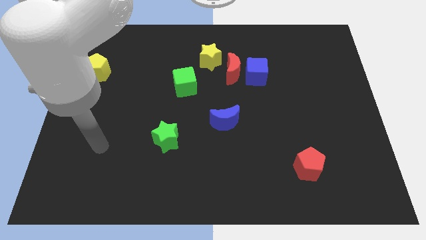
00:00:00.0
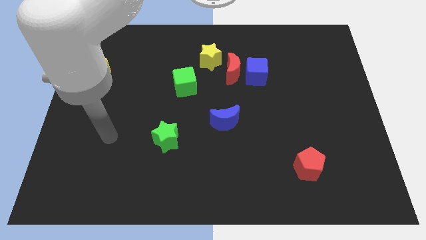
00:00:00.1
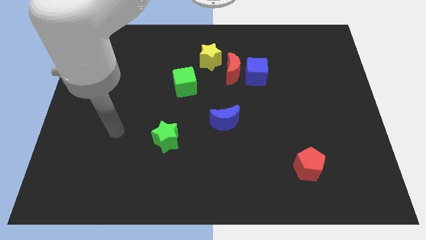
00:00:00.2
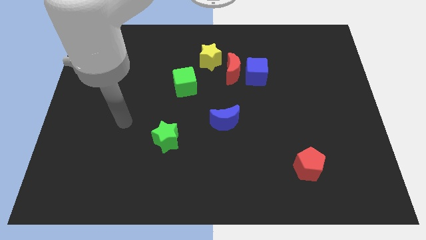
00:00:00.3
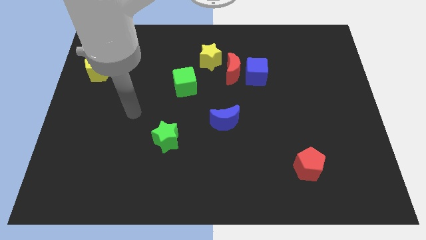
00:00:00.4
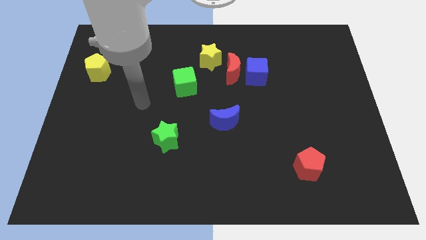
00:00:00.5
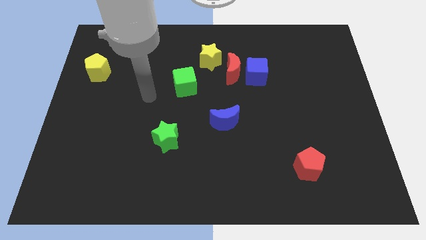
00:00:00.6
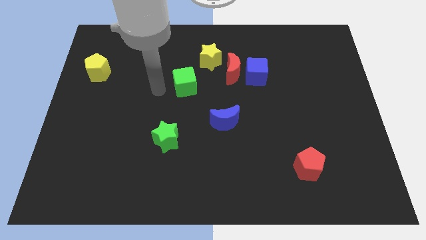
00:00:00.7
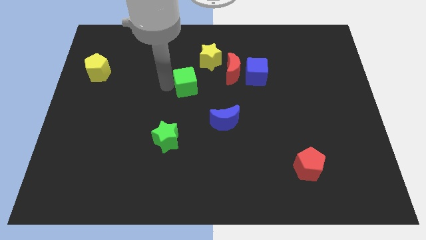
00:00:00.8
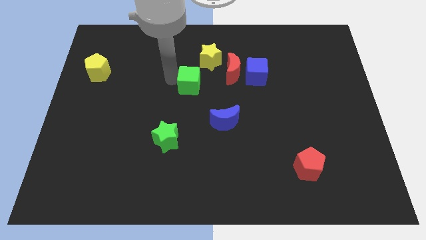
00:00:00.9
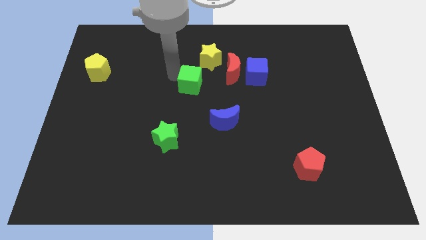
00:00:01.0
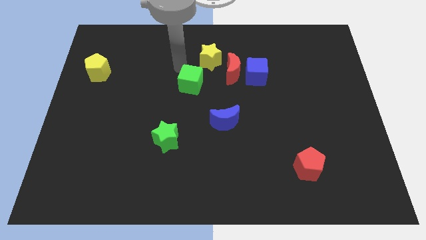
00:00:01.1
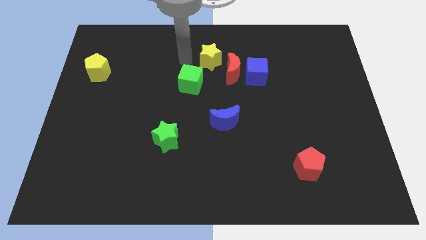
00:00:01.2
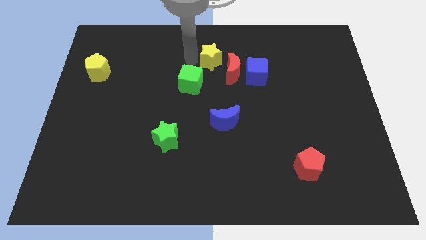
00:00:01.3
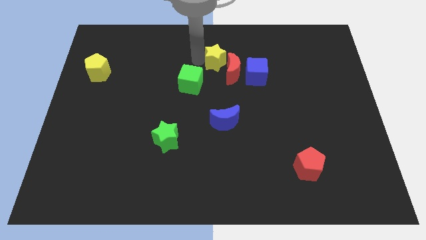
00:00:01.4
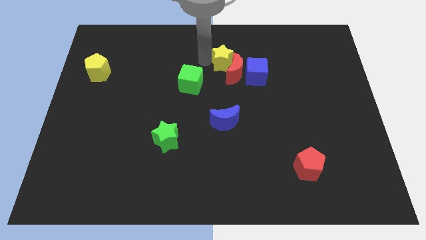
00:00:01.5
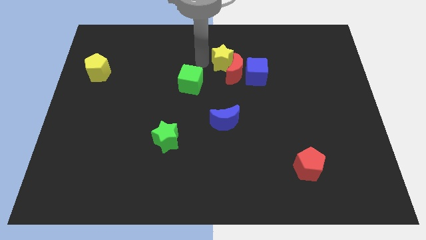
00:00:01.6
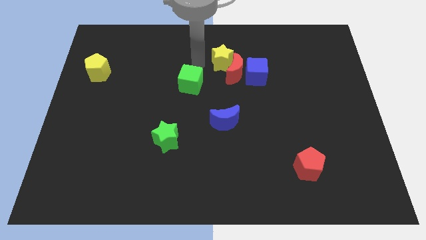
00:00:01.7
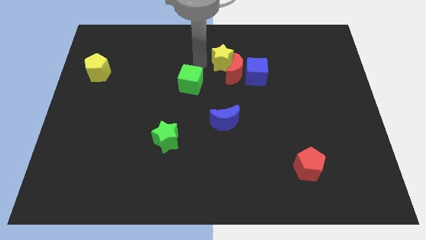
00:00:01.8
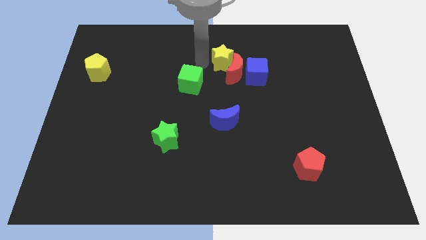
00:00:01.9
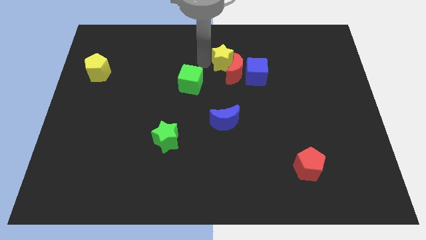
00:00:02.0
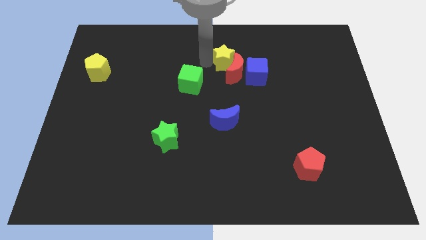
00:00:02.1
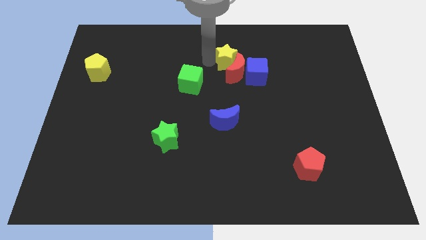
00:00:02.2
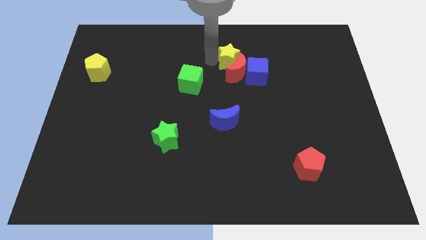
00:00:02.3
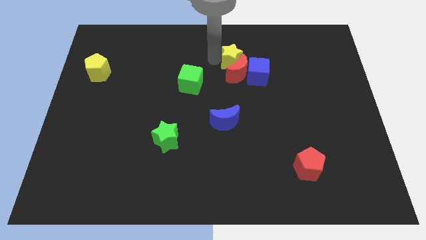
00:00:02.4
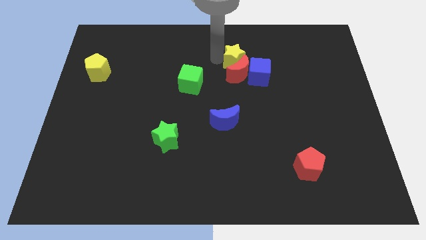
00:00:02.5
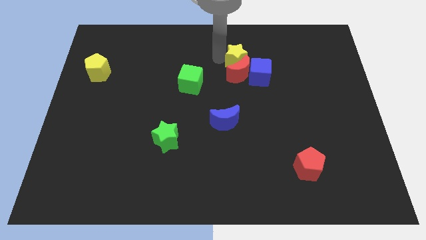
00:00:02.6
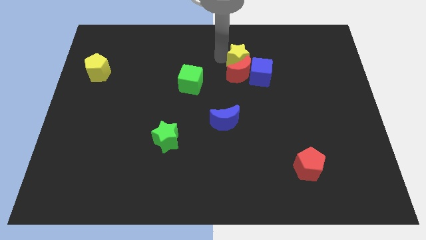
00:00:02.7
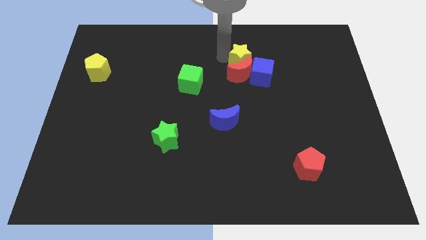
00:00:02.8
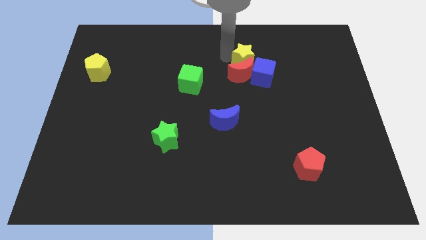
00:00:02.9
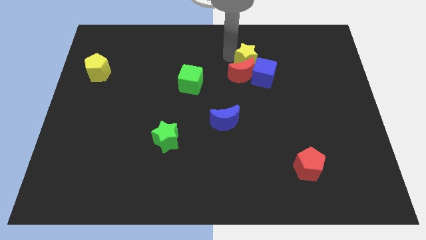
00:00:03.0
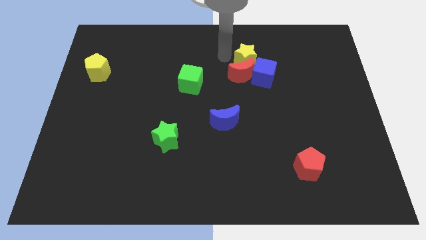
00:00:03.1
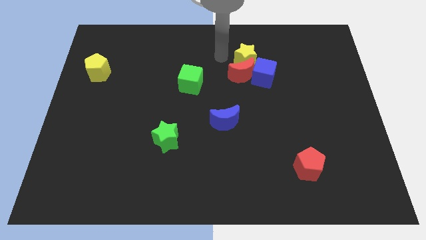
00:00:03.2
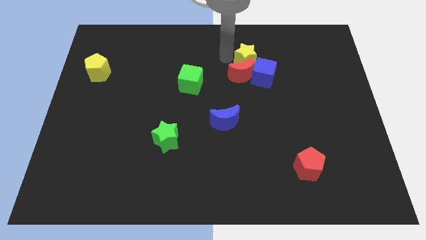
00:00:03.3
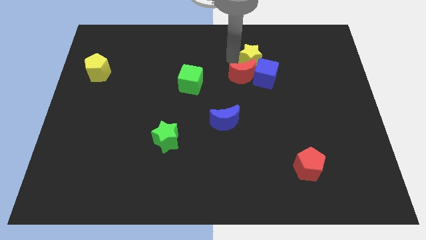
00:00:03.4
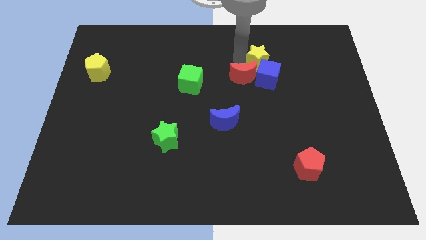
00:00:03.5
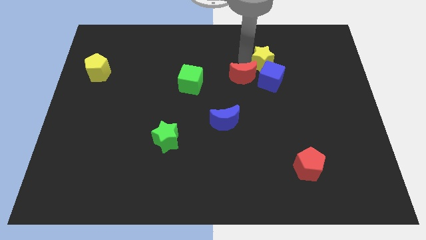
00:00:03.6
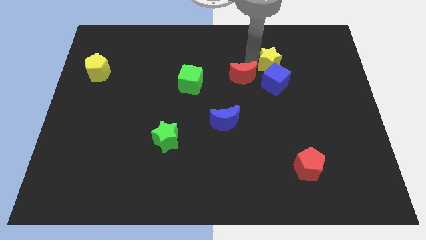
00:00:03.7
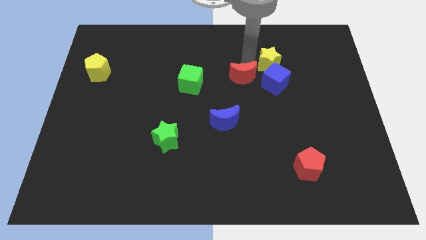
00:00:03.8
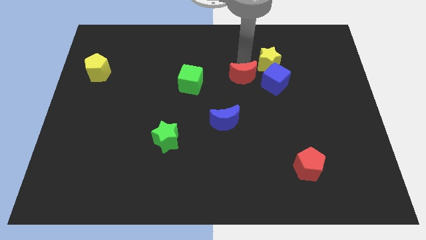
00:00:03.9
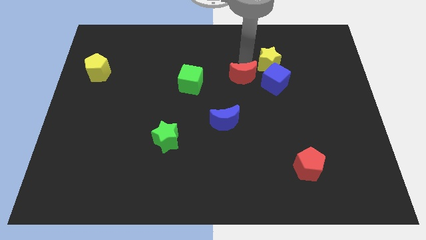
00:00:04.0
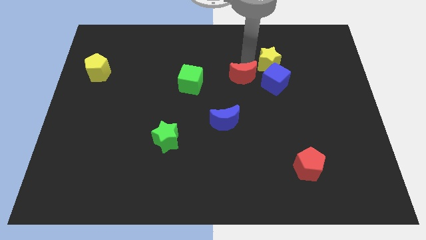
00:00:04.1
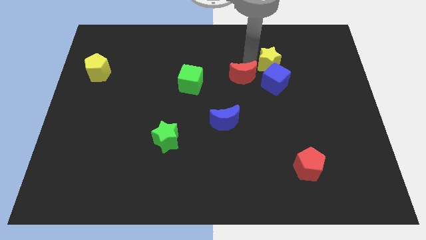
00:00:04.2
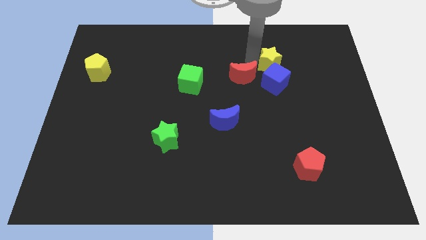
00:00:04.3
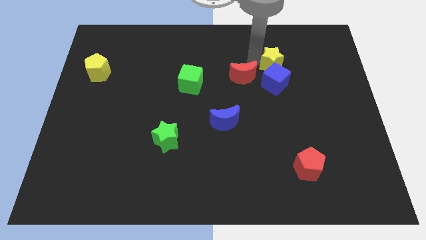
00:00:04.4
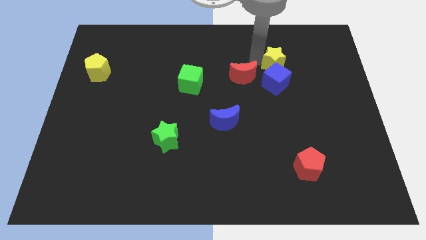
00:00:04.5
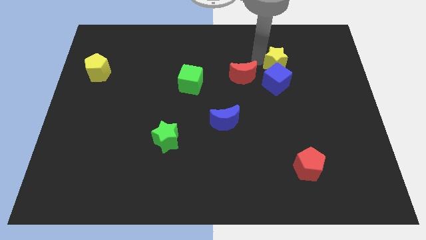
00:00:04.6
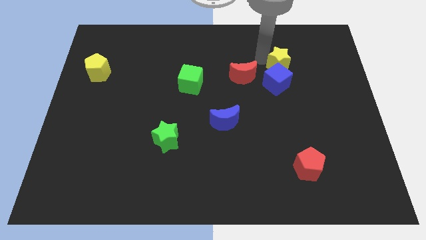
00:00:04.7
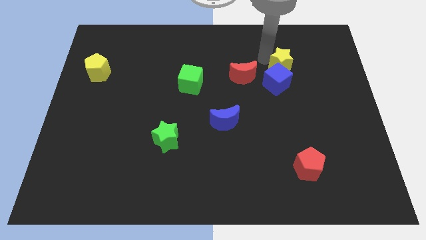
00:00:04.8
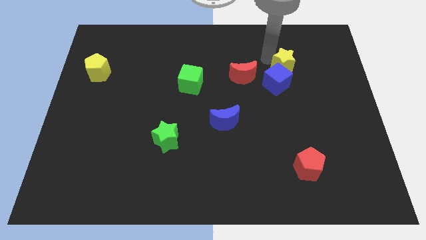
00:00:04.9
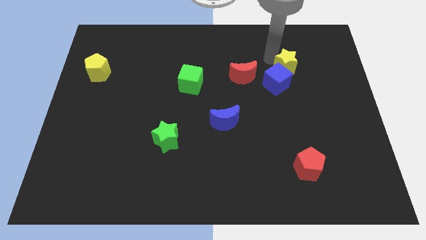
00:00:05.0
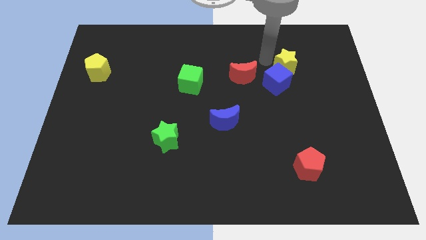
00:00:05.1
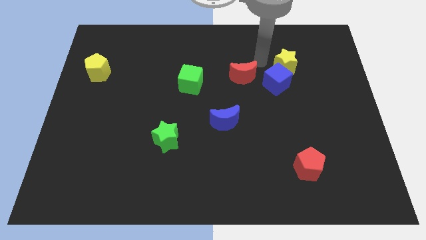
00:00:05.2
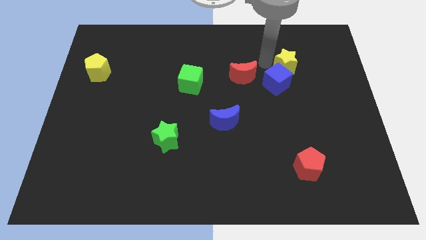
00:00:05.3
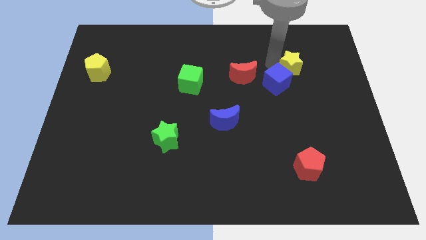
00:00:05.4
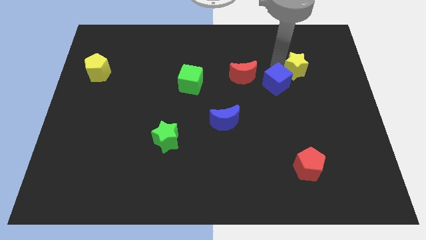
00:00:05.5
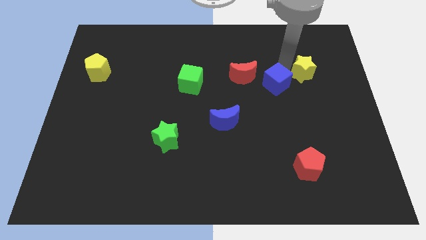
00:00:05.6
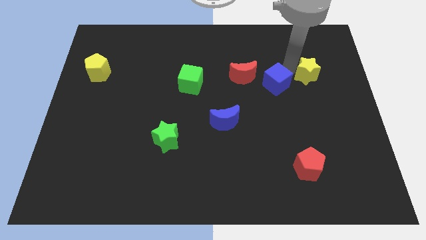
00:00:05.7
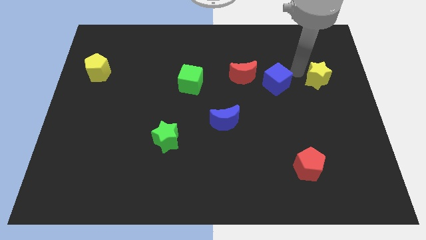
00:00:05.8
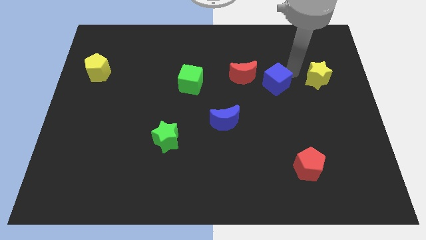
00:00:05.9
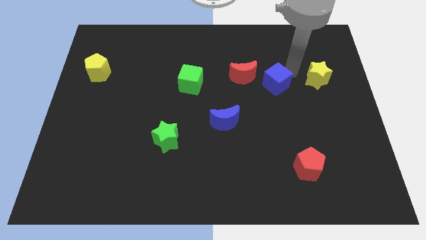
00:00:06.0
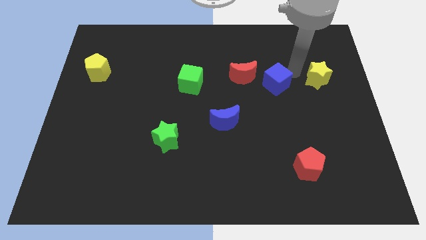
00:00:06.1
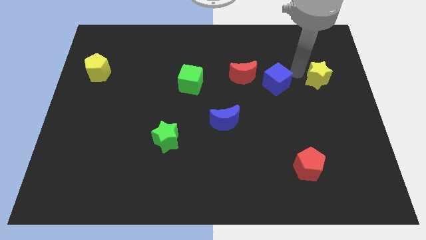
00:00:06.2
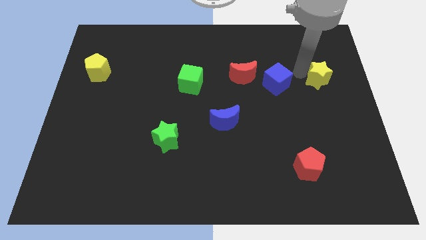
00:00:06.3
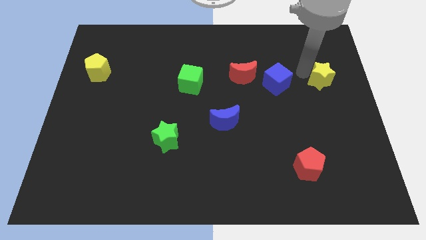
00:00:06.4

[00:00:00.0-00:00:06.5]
move the yellow star to the right side of the board
